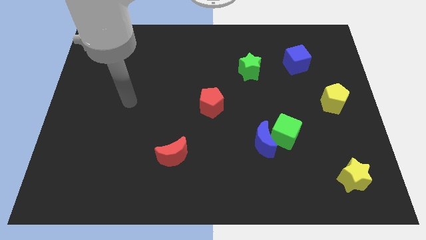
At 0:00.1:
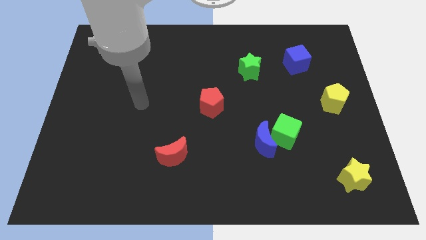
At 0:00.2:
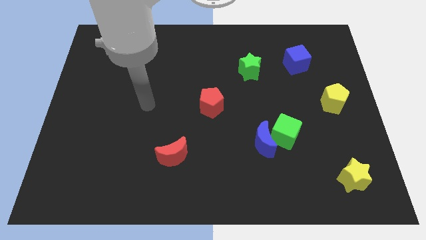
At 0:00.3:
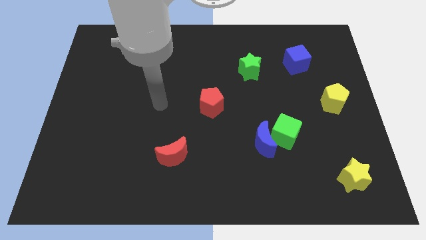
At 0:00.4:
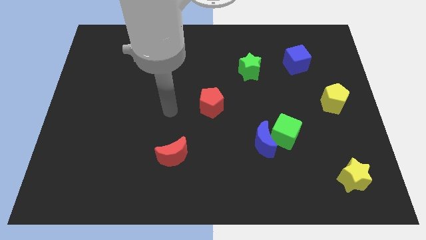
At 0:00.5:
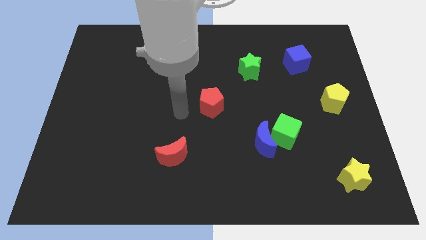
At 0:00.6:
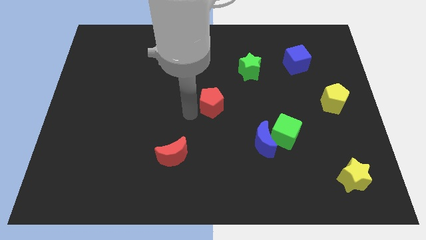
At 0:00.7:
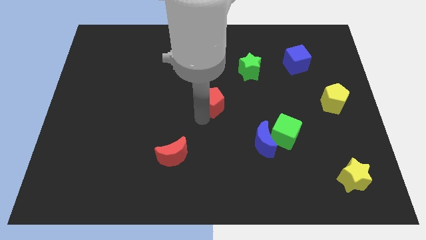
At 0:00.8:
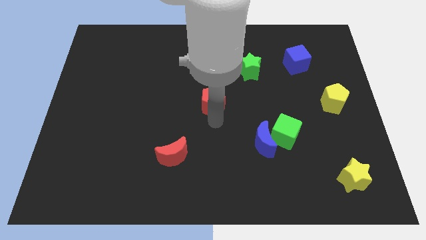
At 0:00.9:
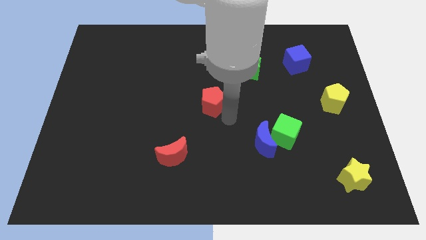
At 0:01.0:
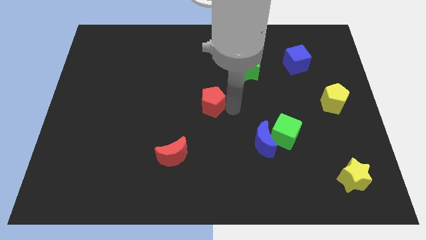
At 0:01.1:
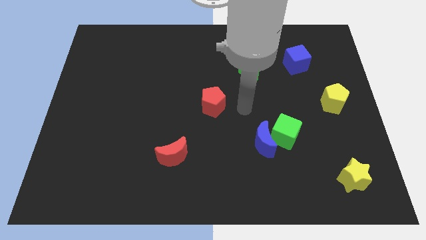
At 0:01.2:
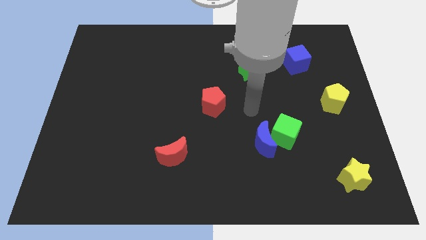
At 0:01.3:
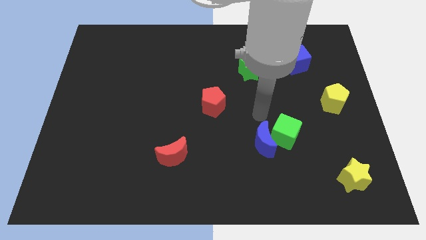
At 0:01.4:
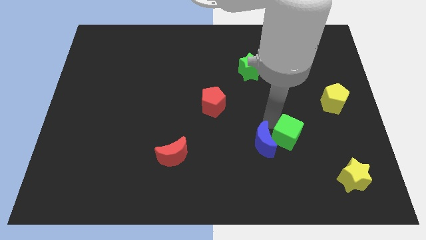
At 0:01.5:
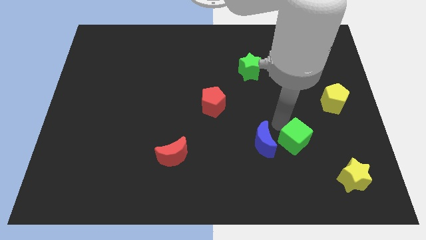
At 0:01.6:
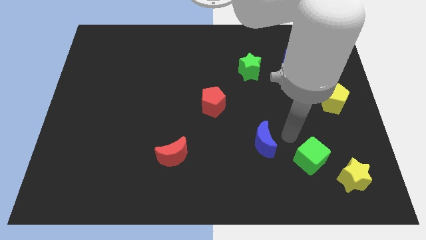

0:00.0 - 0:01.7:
separate the blue moon from the green cube

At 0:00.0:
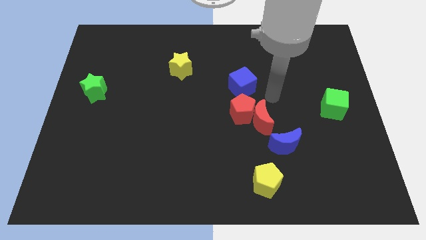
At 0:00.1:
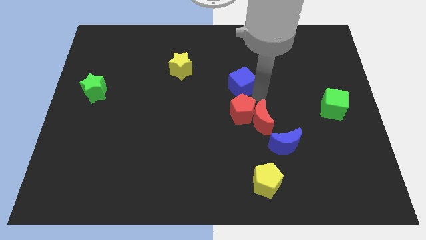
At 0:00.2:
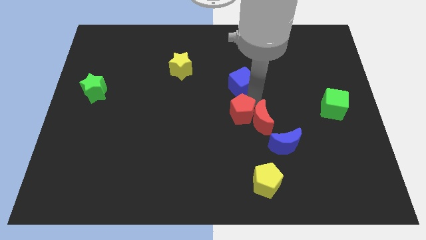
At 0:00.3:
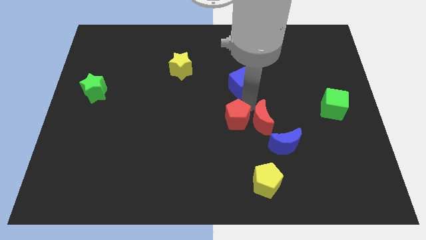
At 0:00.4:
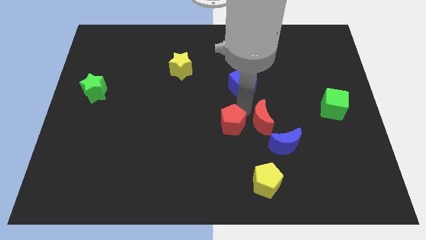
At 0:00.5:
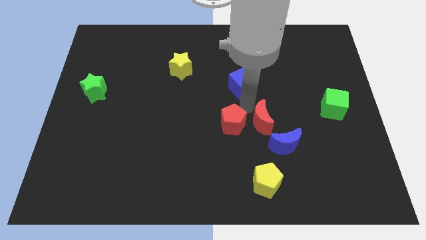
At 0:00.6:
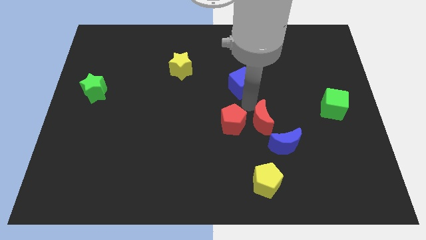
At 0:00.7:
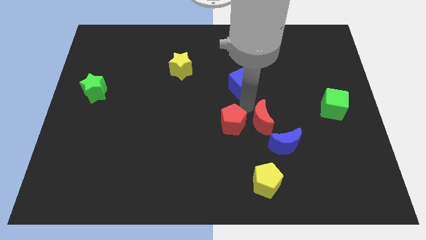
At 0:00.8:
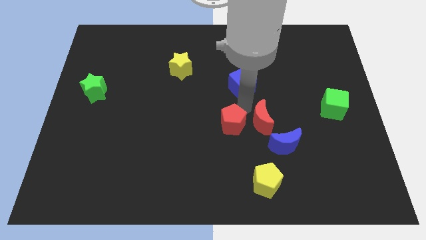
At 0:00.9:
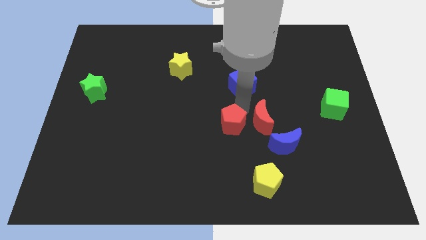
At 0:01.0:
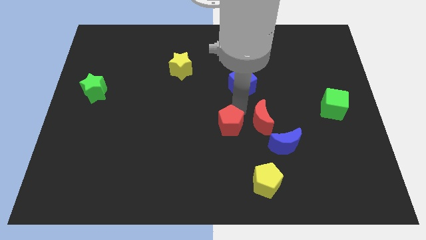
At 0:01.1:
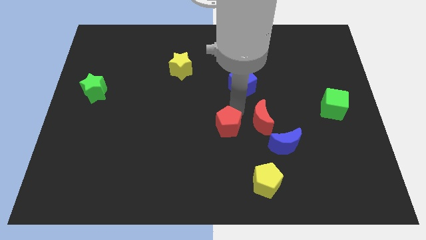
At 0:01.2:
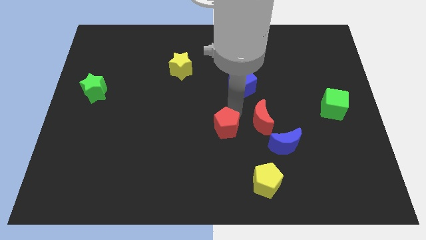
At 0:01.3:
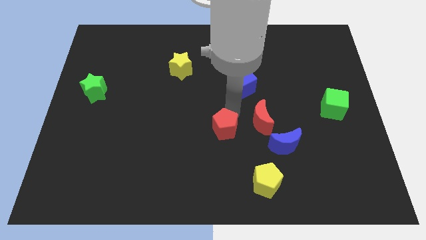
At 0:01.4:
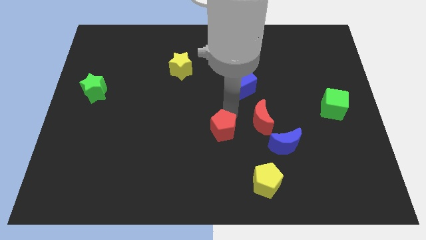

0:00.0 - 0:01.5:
pull the red pentagon apart from the red moon and blue cube

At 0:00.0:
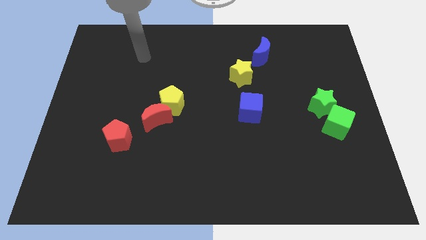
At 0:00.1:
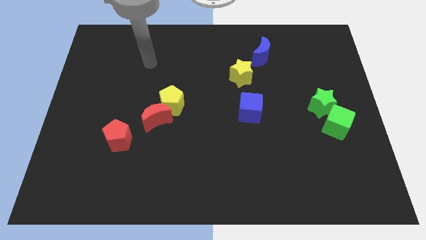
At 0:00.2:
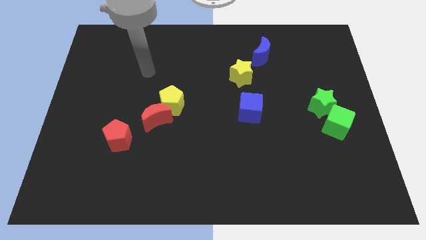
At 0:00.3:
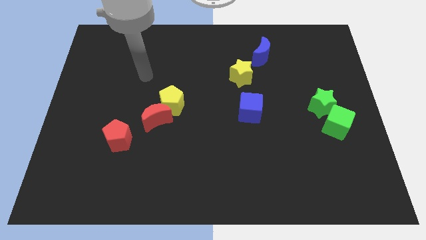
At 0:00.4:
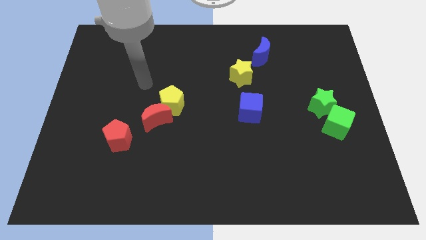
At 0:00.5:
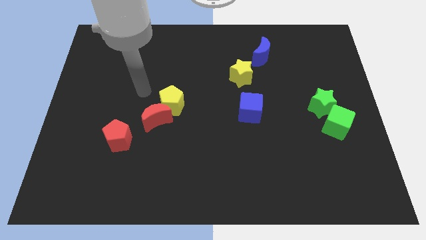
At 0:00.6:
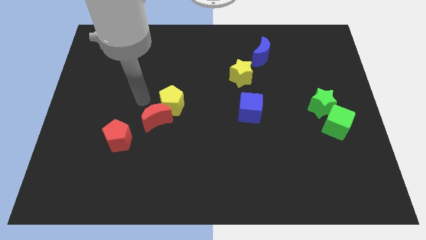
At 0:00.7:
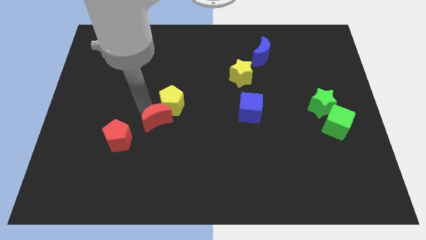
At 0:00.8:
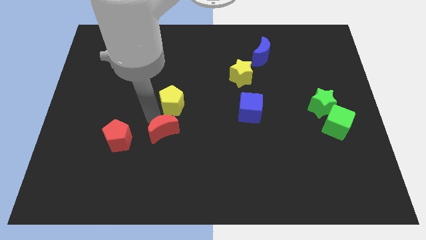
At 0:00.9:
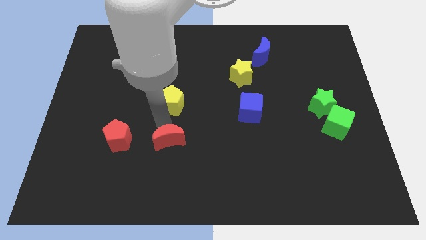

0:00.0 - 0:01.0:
pull the yellow pentagon apart from the red moon

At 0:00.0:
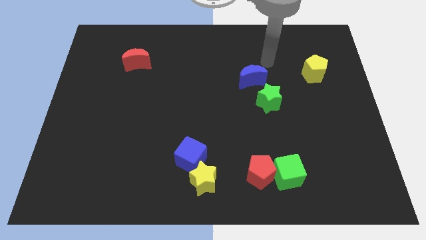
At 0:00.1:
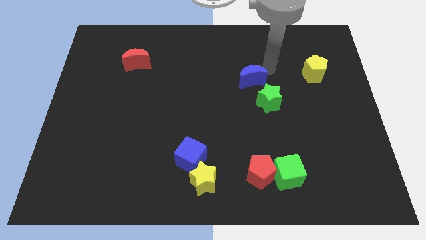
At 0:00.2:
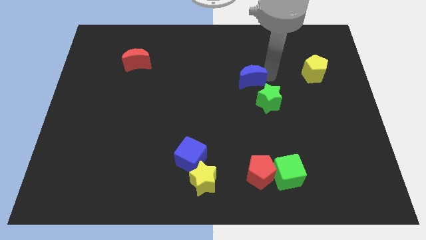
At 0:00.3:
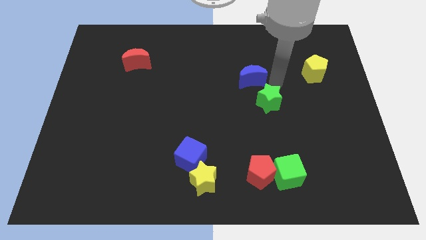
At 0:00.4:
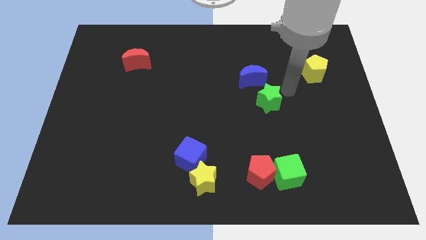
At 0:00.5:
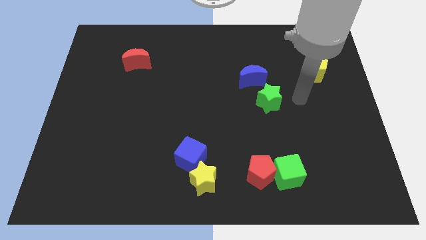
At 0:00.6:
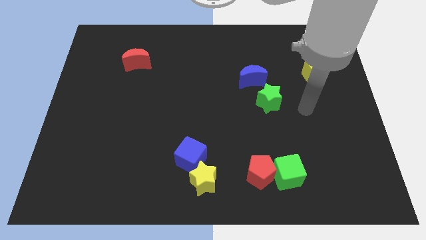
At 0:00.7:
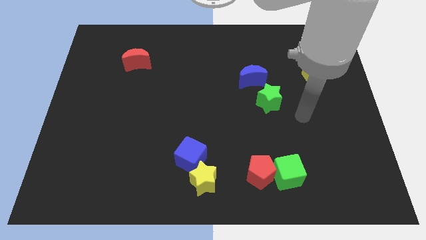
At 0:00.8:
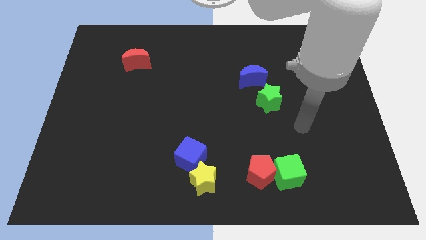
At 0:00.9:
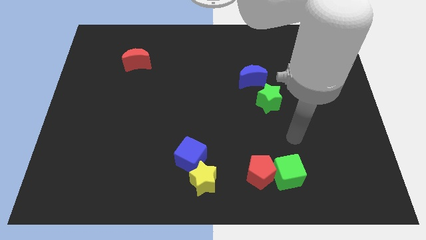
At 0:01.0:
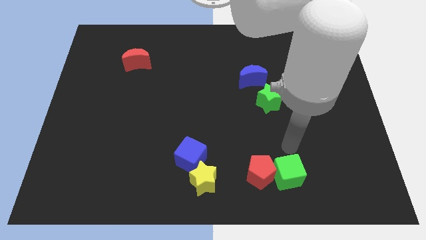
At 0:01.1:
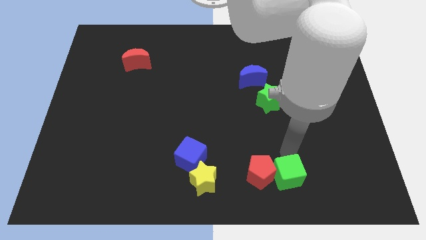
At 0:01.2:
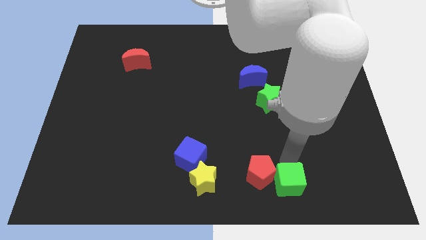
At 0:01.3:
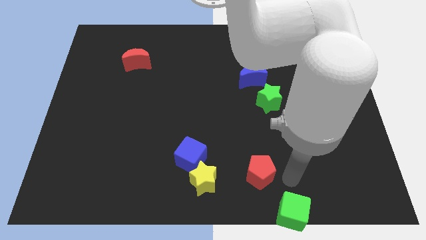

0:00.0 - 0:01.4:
separate the red pentagon from the green cube

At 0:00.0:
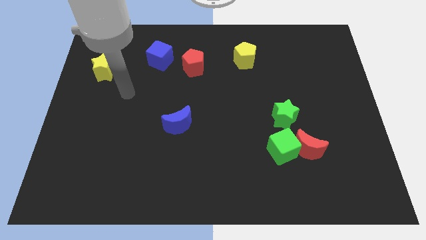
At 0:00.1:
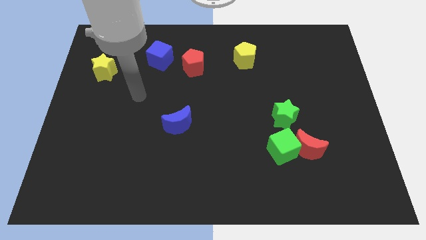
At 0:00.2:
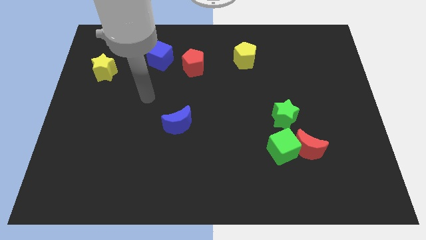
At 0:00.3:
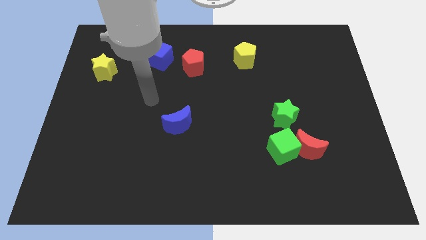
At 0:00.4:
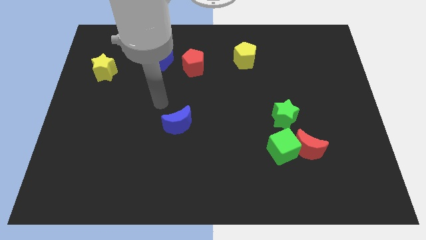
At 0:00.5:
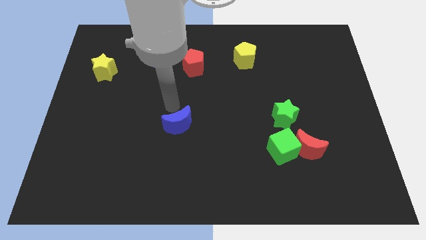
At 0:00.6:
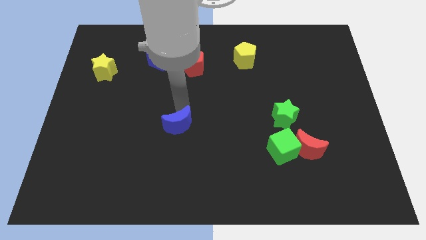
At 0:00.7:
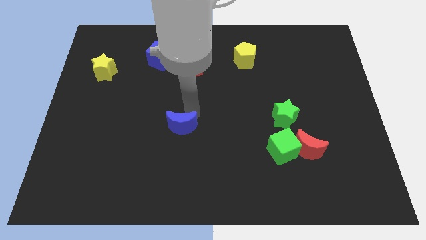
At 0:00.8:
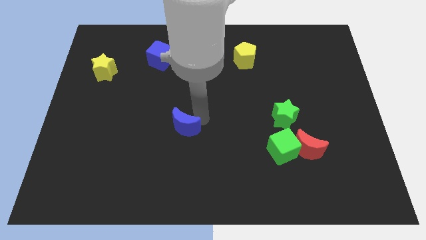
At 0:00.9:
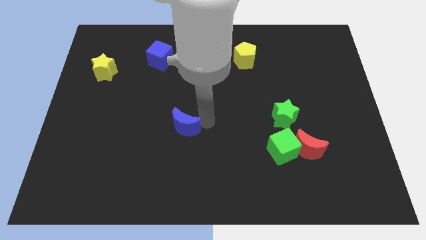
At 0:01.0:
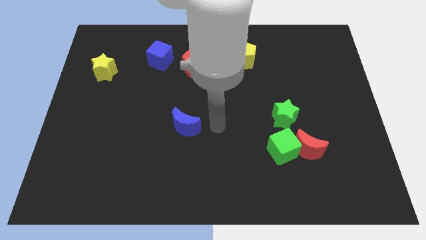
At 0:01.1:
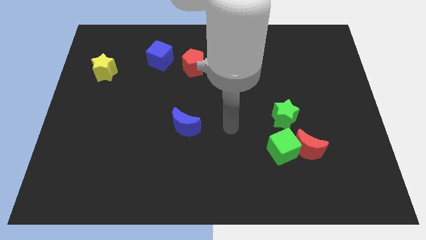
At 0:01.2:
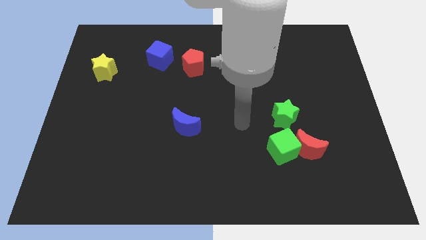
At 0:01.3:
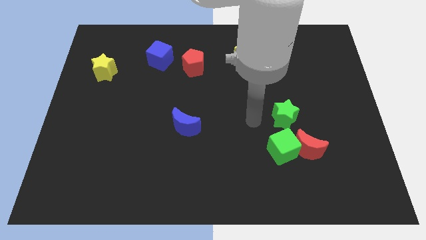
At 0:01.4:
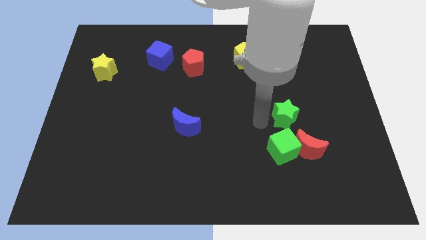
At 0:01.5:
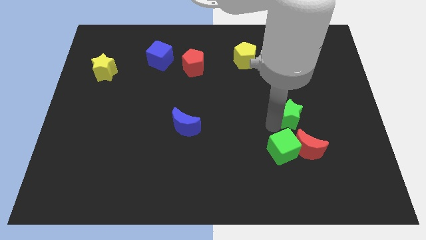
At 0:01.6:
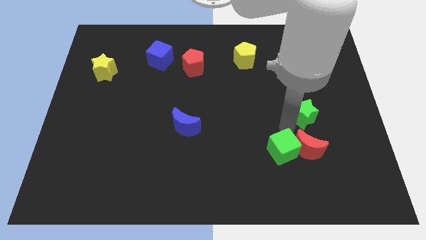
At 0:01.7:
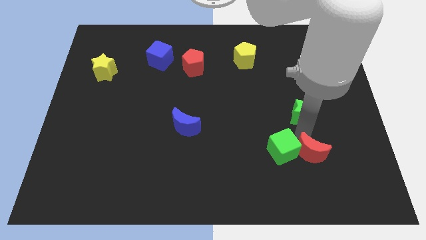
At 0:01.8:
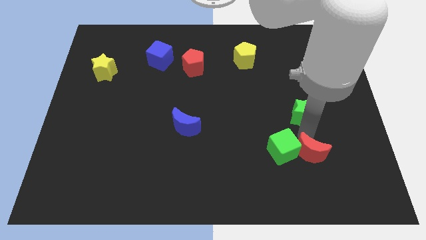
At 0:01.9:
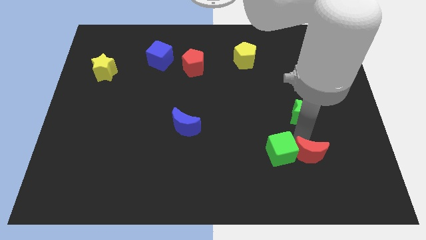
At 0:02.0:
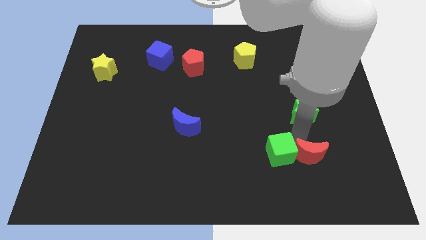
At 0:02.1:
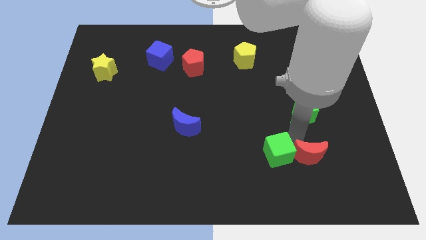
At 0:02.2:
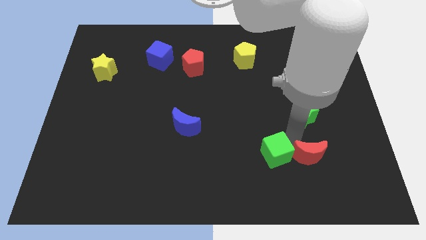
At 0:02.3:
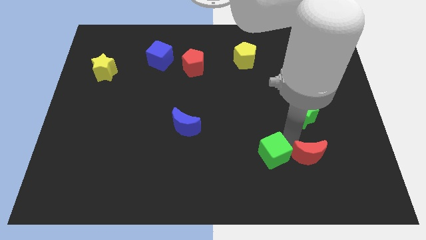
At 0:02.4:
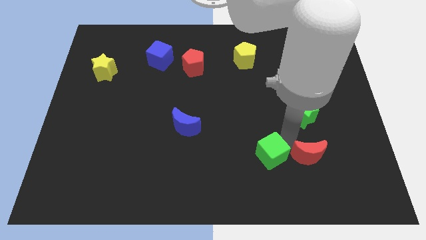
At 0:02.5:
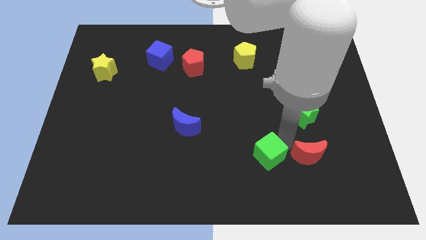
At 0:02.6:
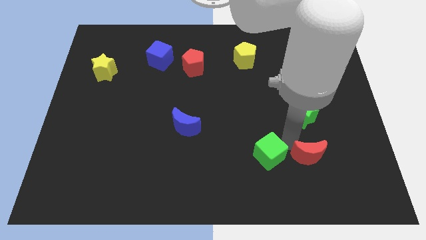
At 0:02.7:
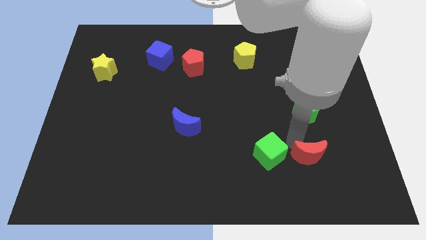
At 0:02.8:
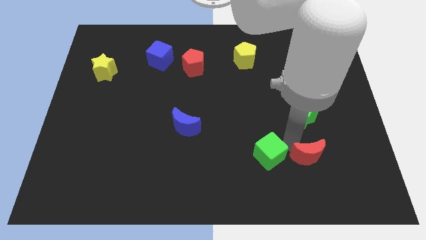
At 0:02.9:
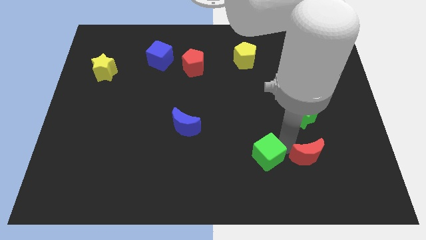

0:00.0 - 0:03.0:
pull the green cube apart from the red moon and green star

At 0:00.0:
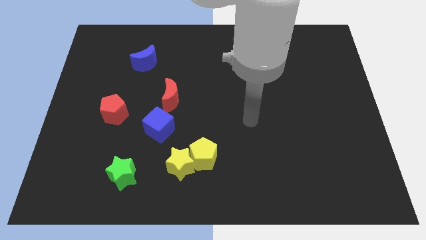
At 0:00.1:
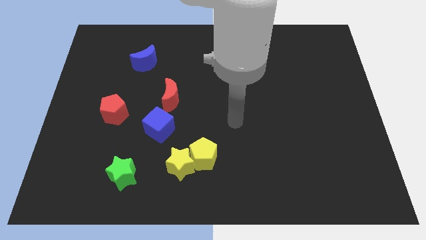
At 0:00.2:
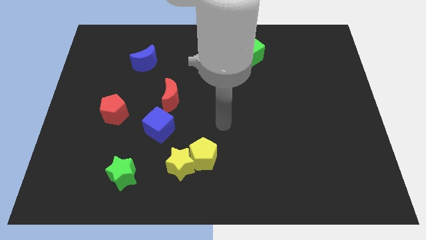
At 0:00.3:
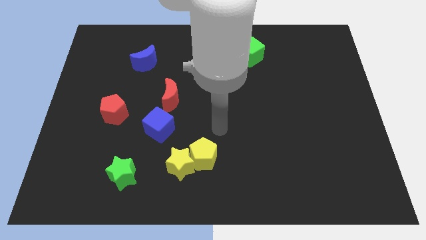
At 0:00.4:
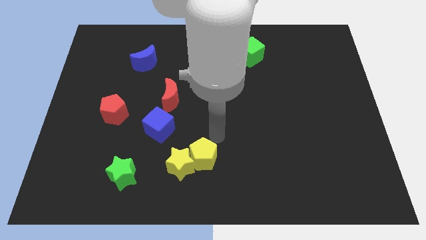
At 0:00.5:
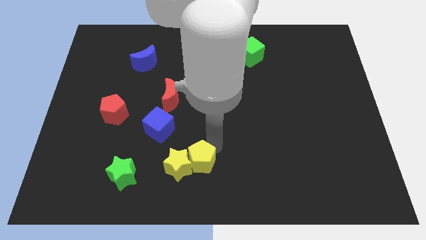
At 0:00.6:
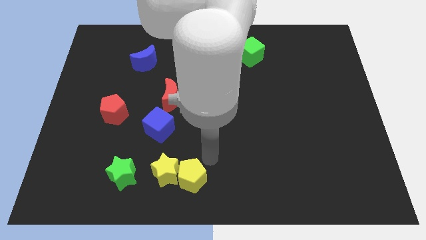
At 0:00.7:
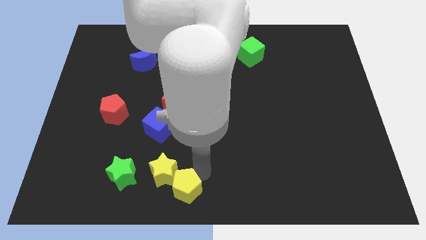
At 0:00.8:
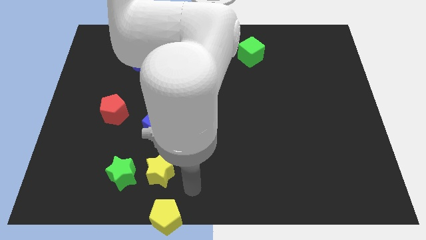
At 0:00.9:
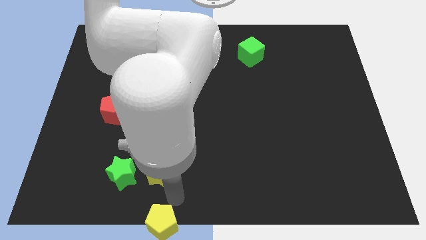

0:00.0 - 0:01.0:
separate the yellow star from the yellow pentagon
